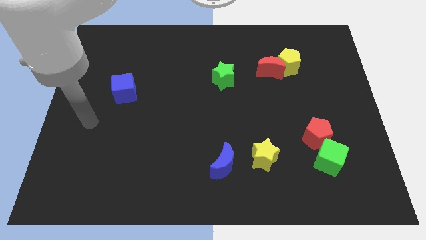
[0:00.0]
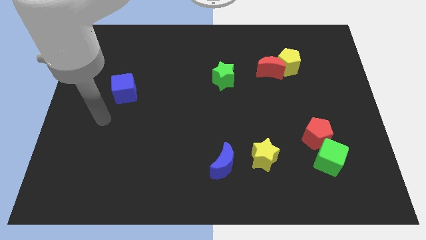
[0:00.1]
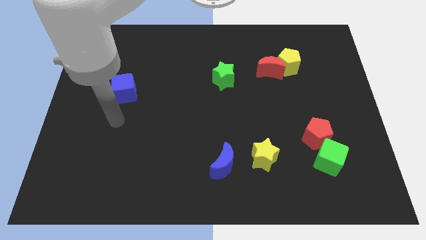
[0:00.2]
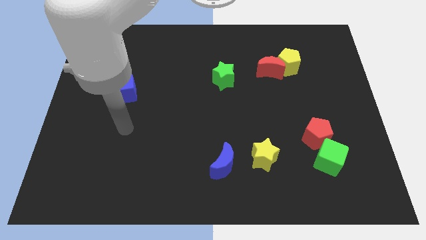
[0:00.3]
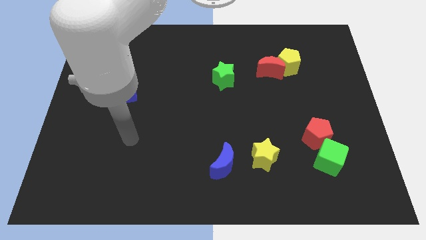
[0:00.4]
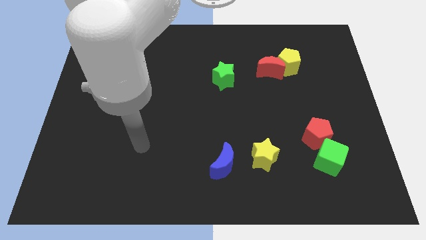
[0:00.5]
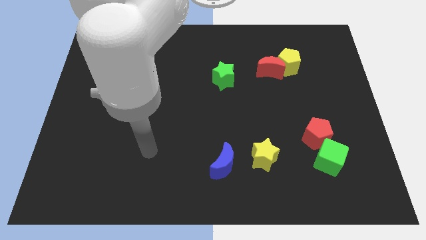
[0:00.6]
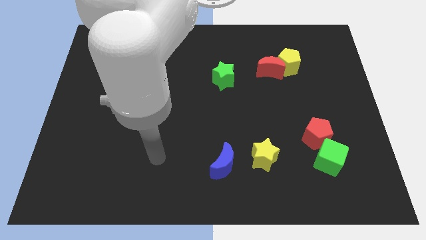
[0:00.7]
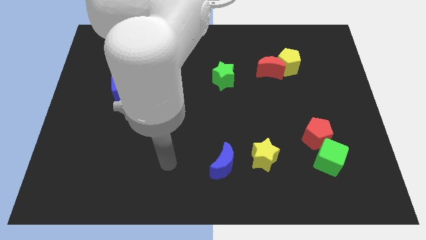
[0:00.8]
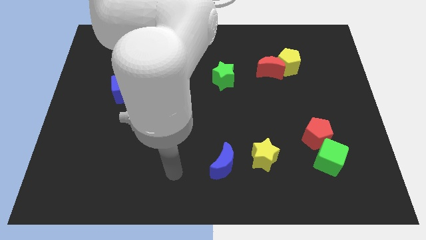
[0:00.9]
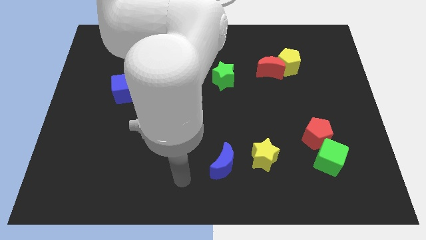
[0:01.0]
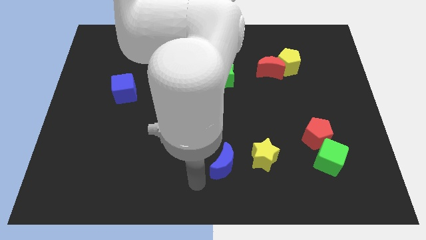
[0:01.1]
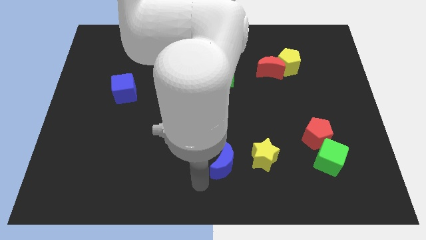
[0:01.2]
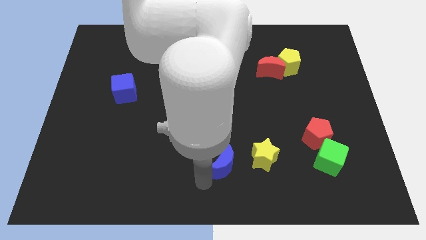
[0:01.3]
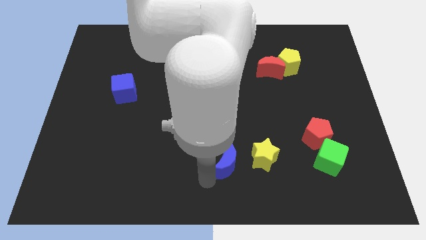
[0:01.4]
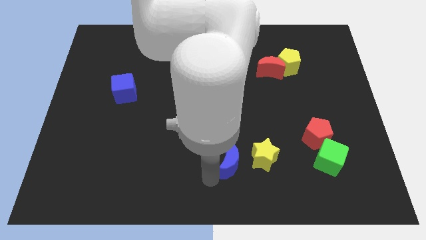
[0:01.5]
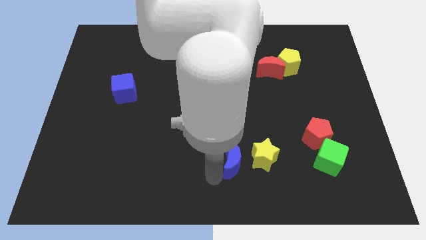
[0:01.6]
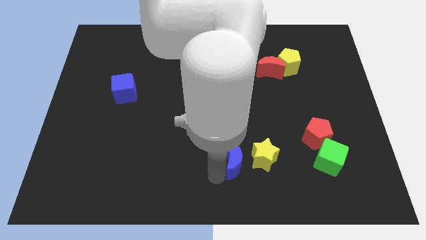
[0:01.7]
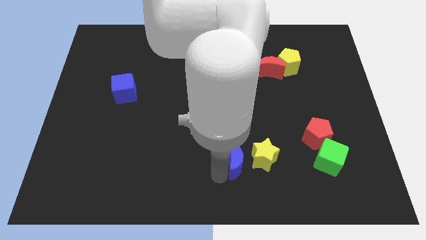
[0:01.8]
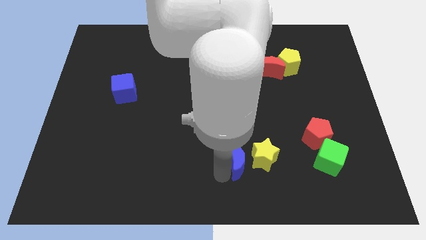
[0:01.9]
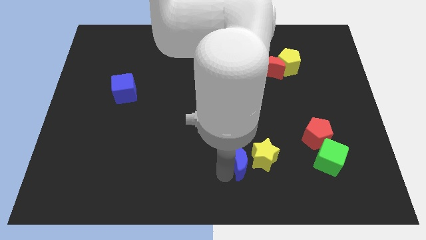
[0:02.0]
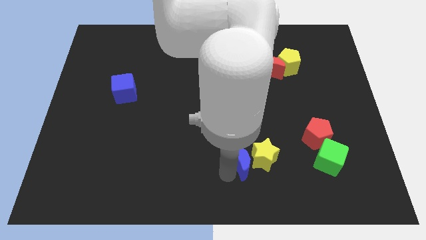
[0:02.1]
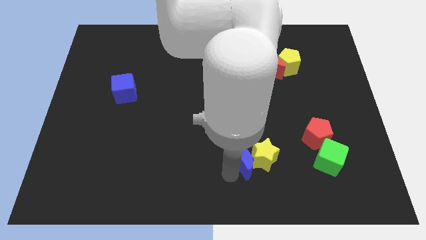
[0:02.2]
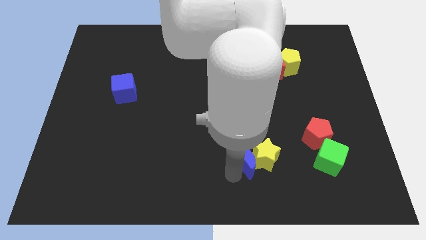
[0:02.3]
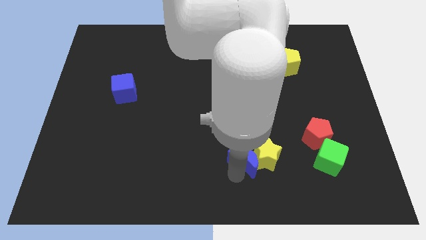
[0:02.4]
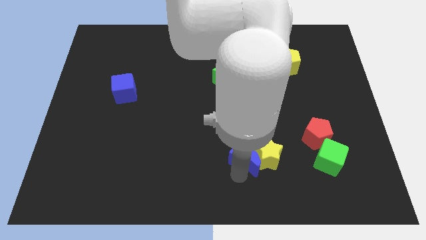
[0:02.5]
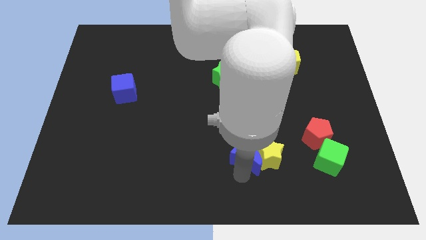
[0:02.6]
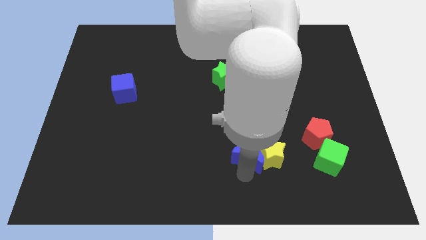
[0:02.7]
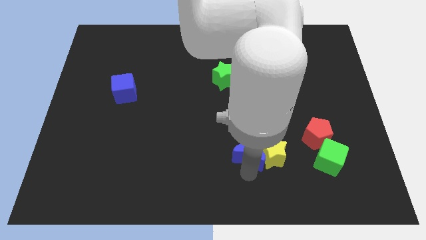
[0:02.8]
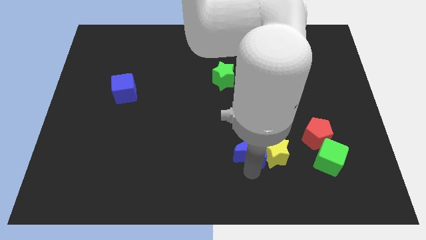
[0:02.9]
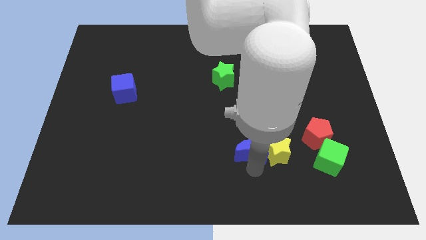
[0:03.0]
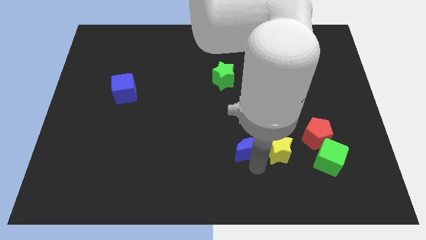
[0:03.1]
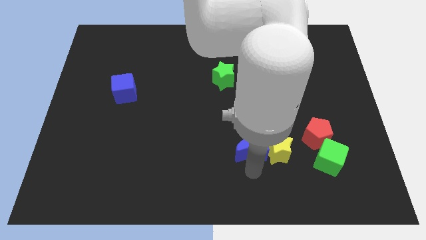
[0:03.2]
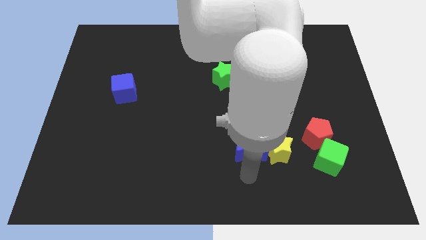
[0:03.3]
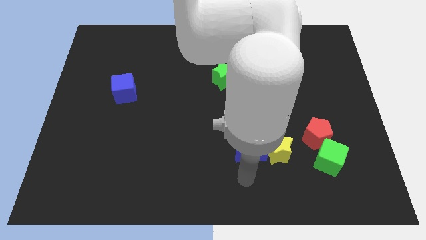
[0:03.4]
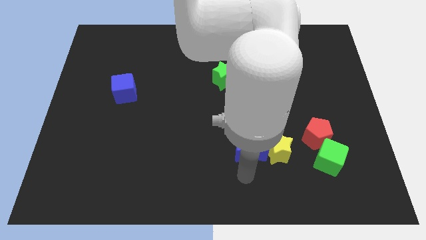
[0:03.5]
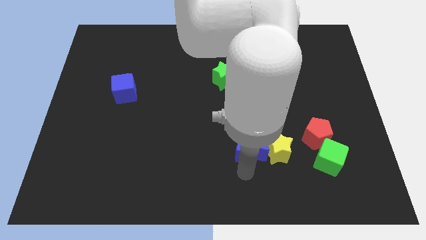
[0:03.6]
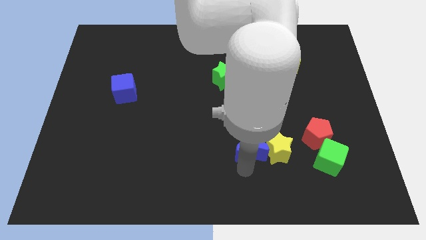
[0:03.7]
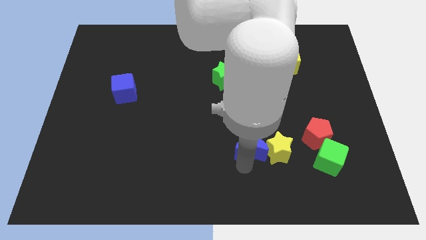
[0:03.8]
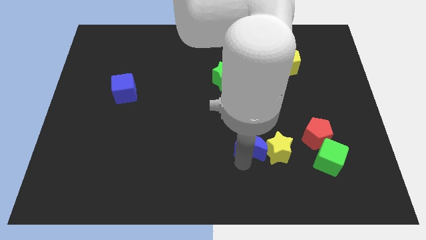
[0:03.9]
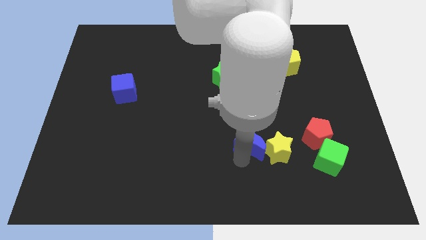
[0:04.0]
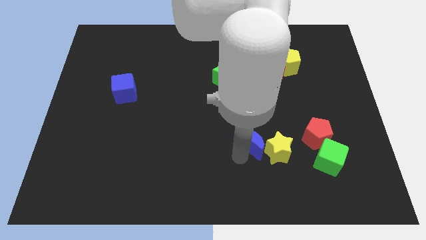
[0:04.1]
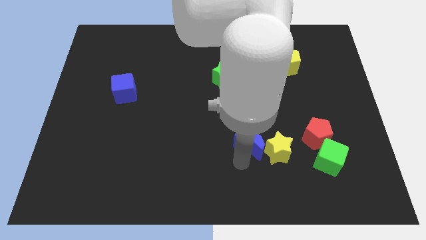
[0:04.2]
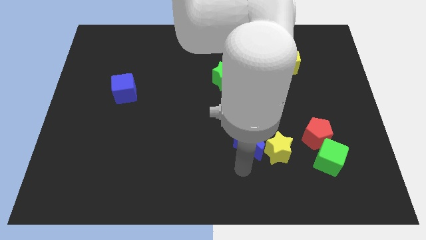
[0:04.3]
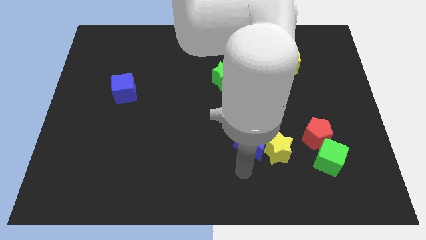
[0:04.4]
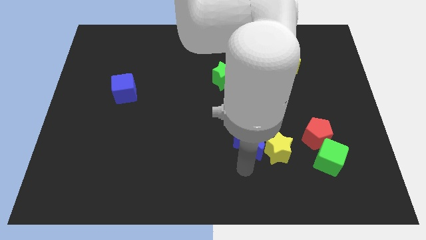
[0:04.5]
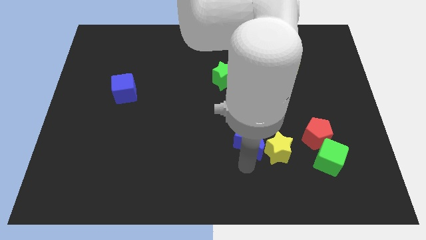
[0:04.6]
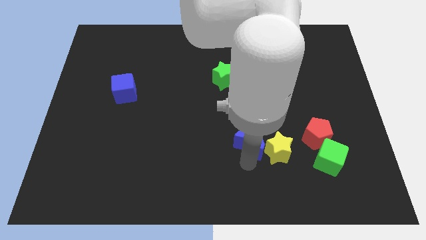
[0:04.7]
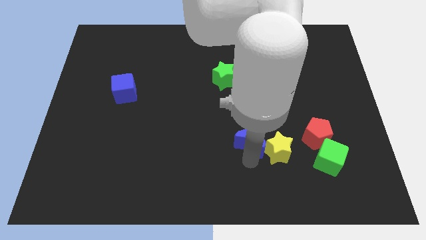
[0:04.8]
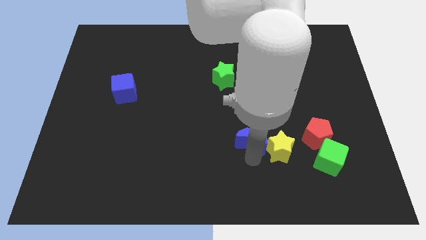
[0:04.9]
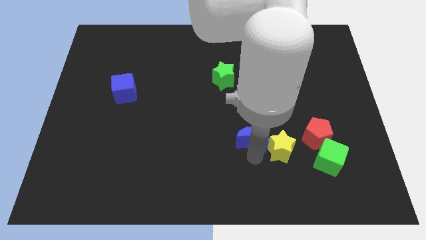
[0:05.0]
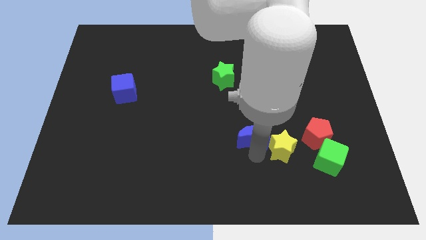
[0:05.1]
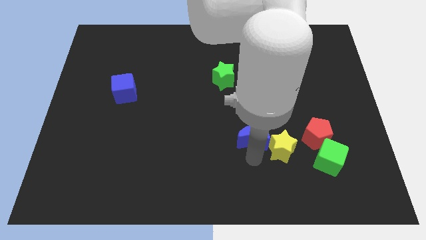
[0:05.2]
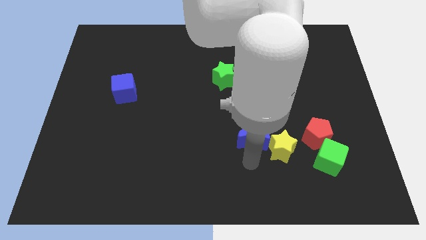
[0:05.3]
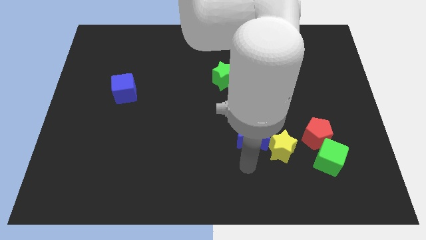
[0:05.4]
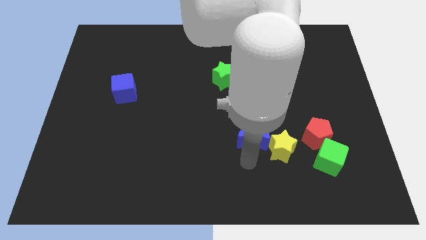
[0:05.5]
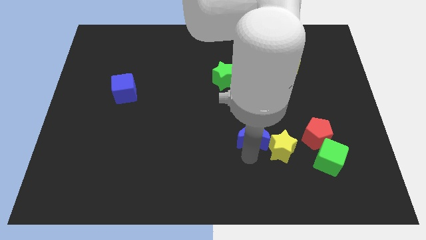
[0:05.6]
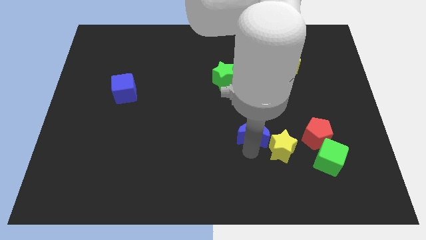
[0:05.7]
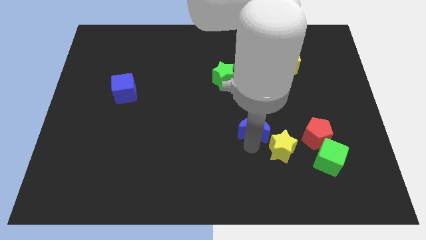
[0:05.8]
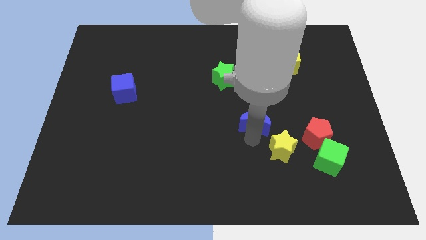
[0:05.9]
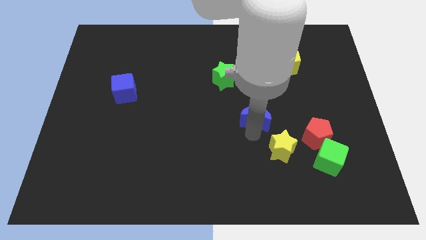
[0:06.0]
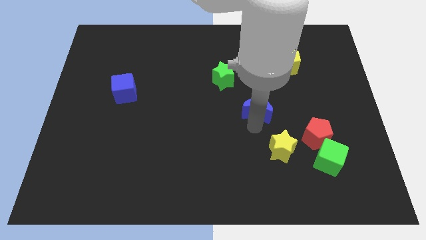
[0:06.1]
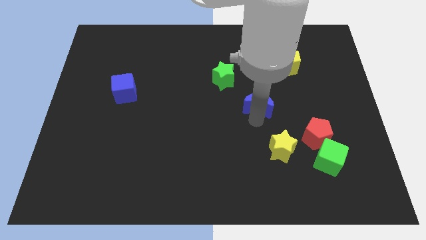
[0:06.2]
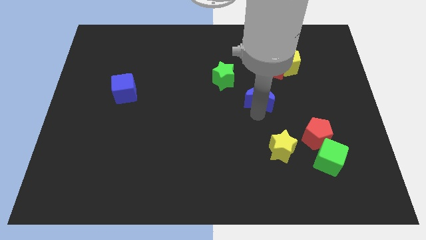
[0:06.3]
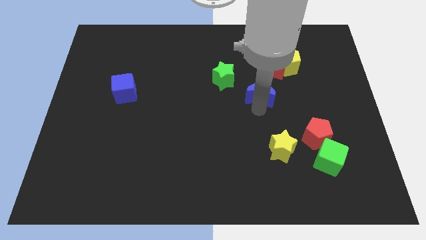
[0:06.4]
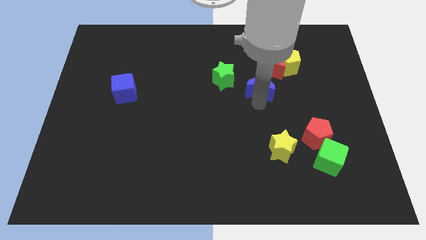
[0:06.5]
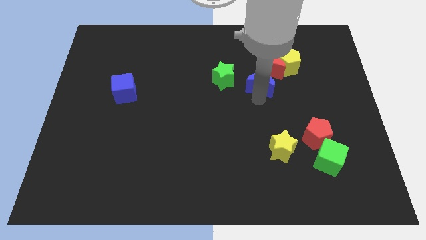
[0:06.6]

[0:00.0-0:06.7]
slide the blue moon next to the red moon
